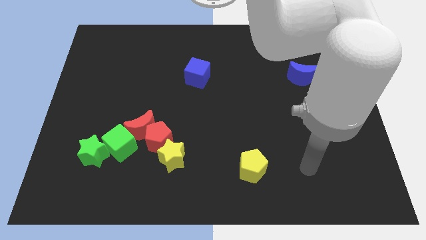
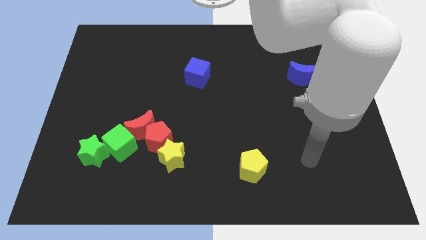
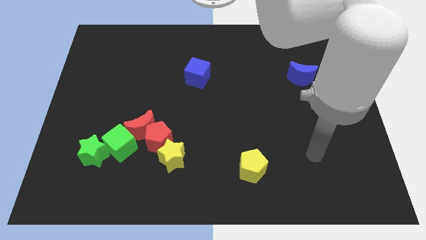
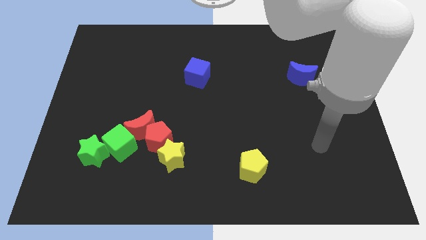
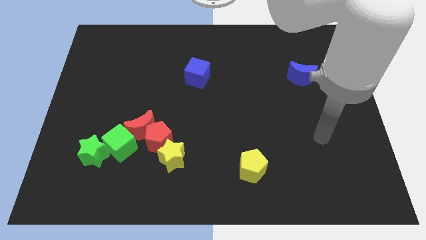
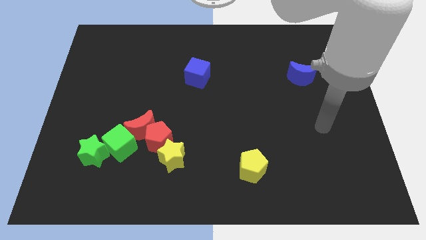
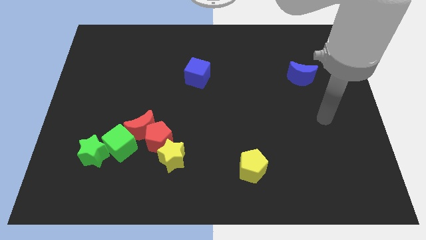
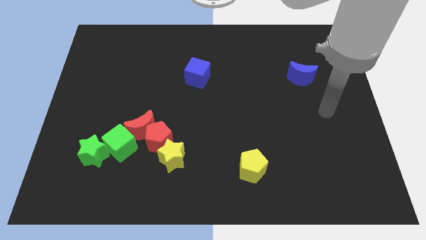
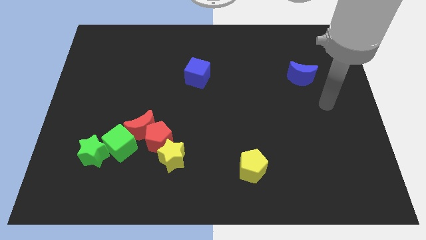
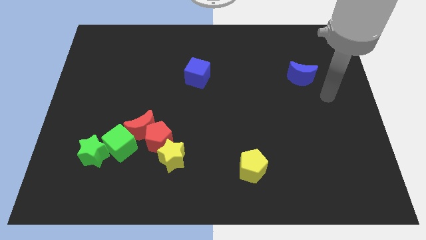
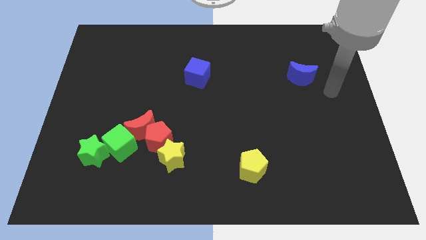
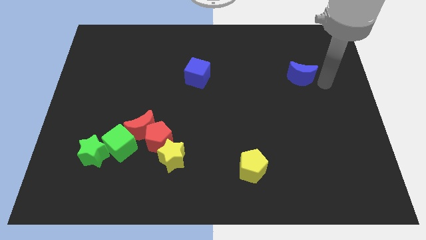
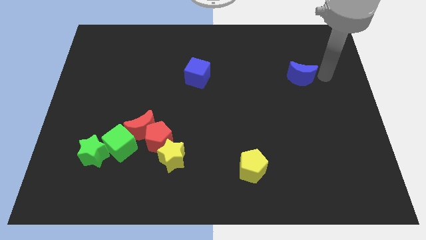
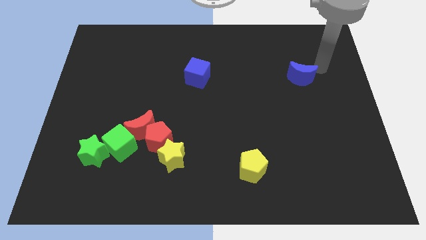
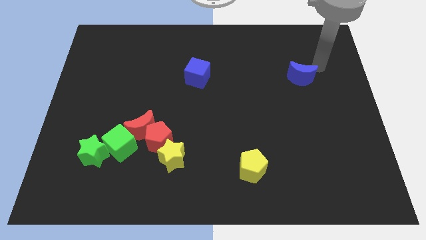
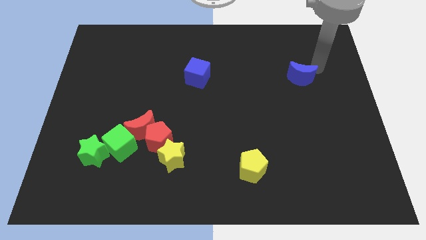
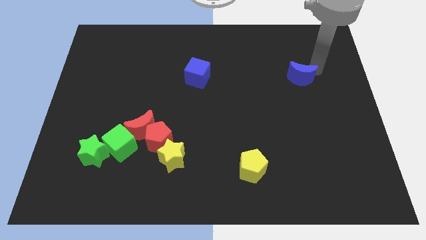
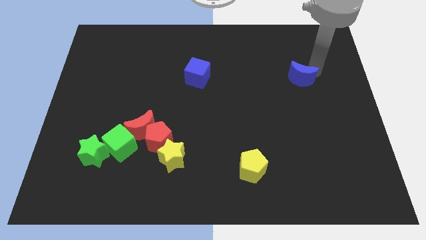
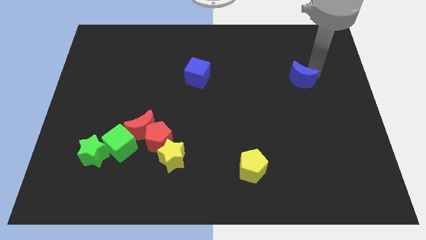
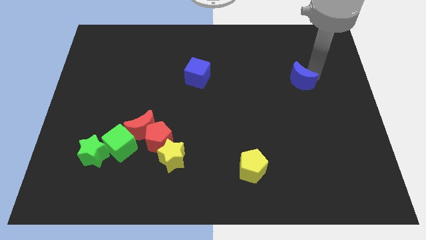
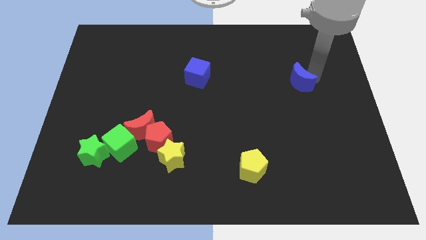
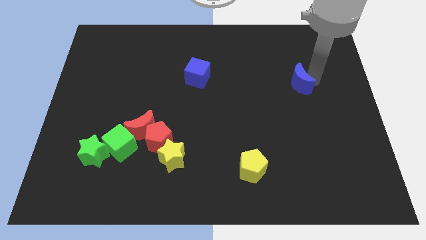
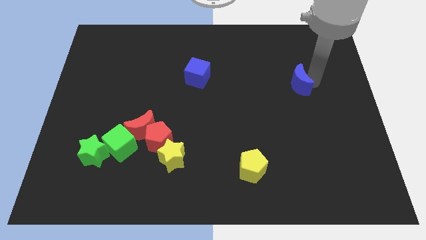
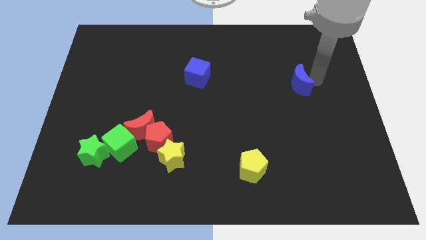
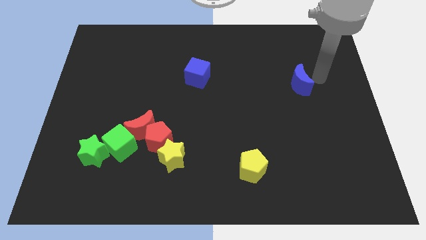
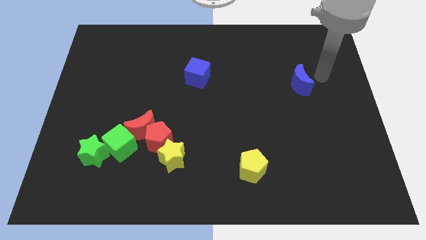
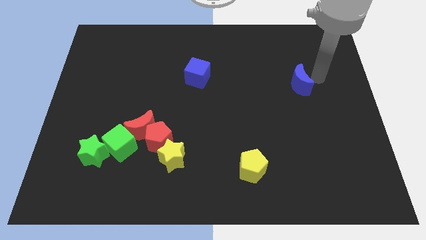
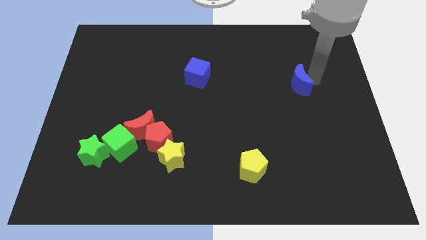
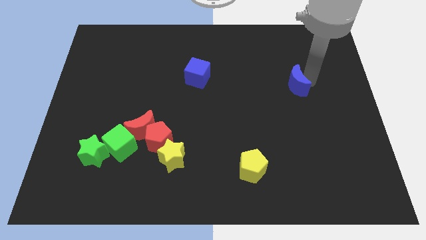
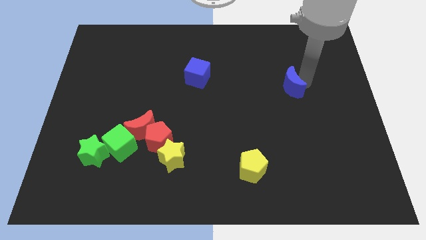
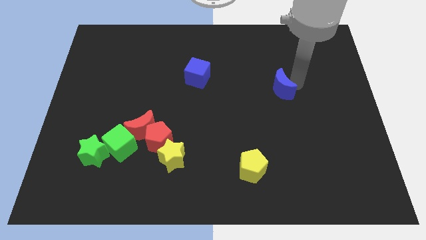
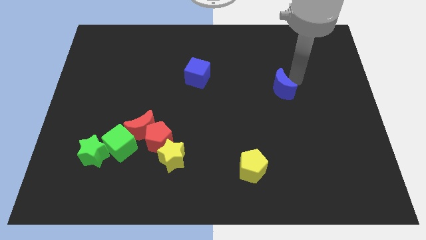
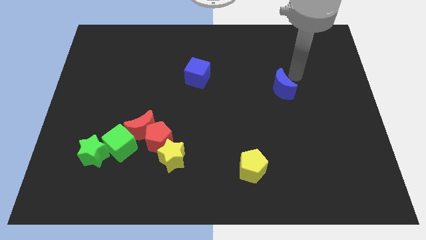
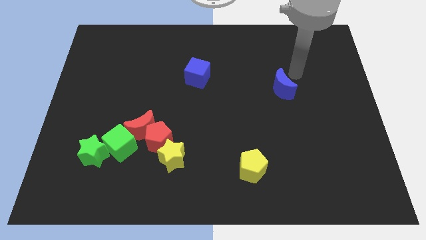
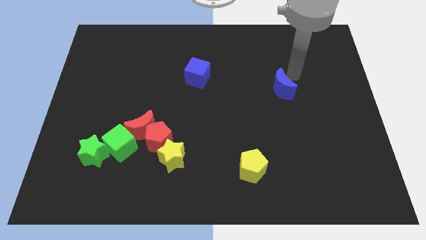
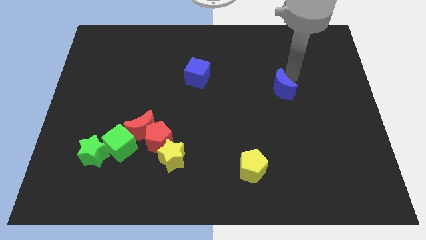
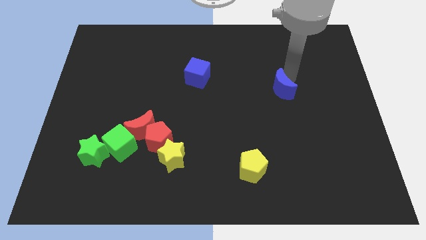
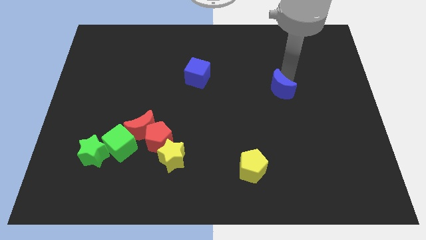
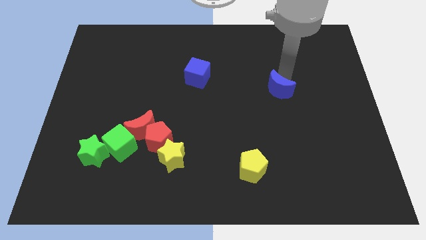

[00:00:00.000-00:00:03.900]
push the blue moon a little downwards and to the left diagonally

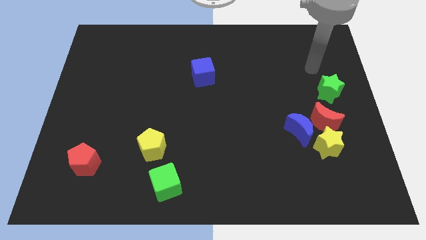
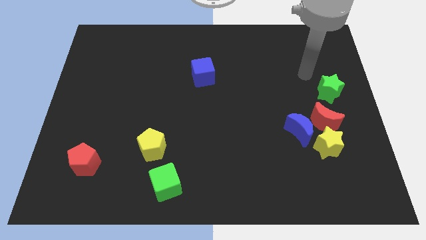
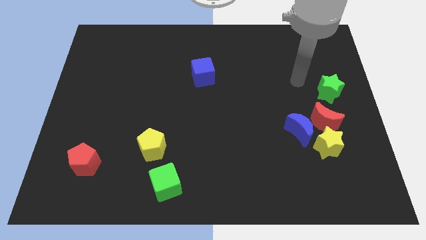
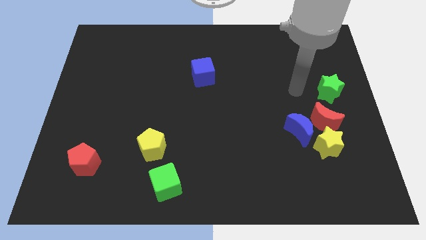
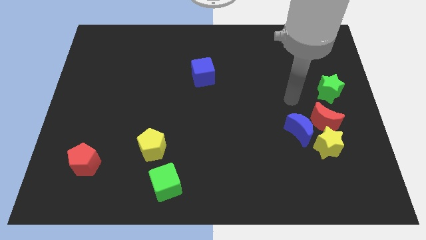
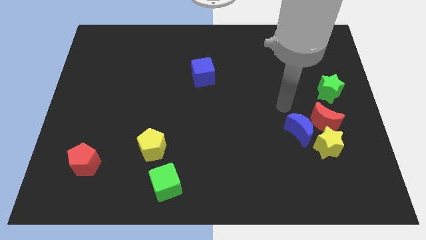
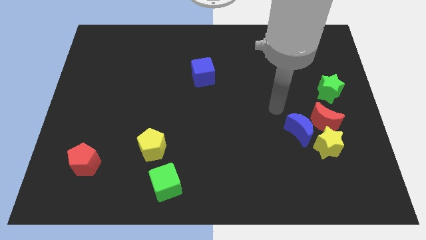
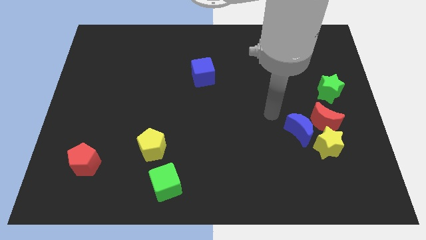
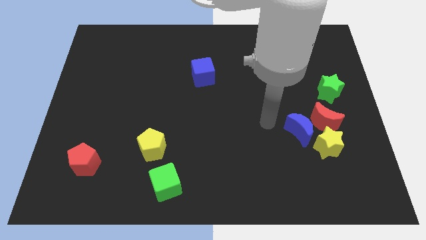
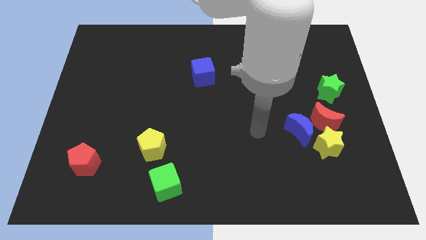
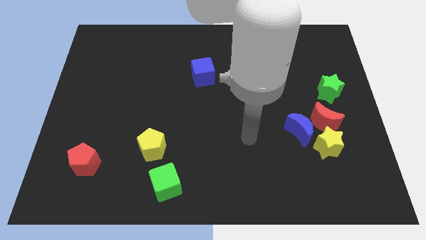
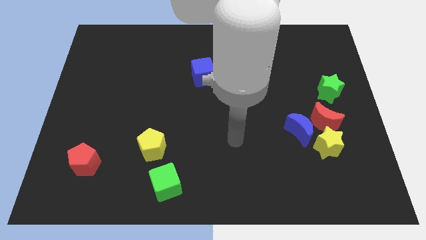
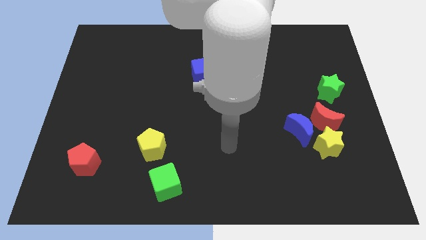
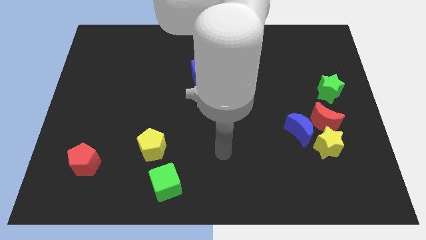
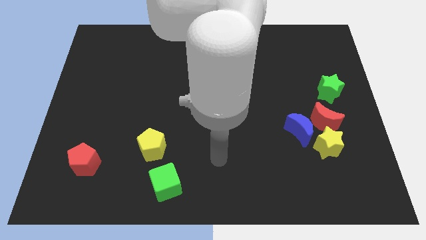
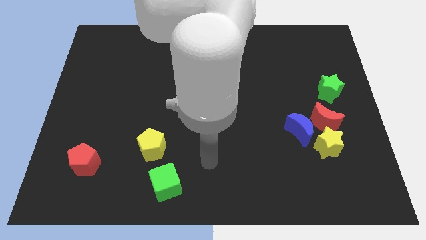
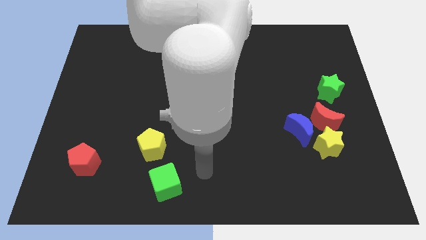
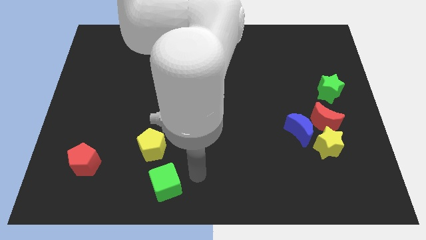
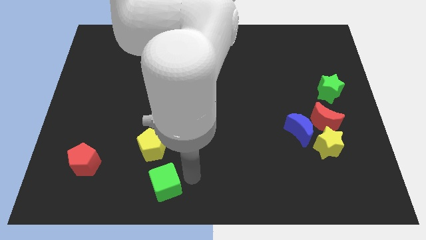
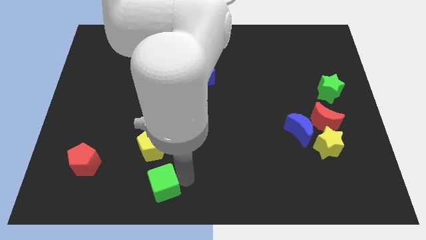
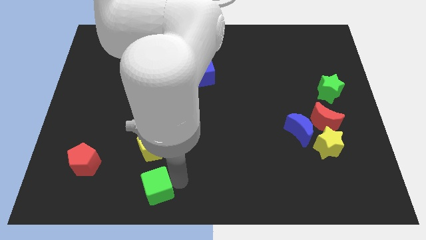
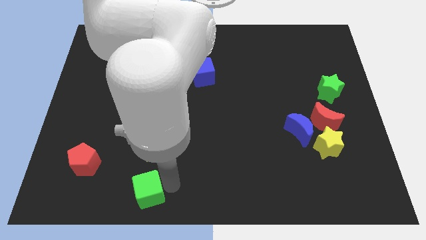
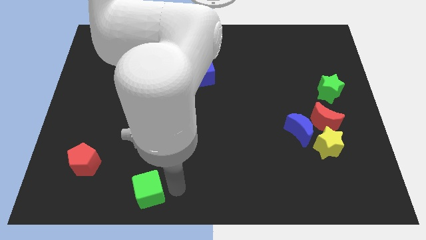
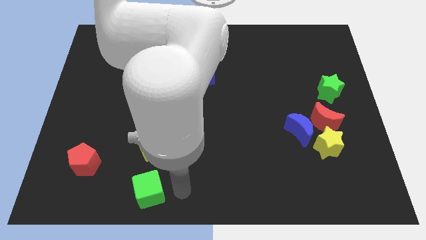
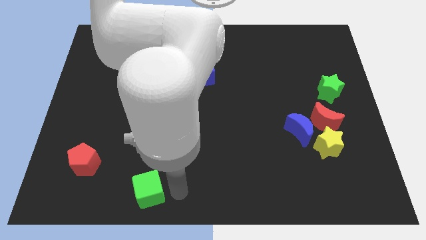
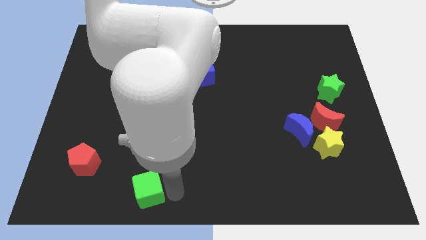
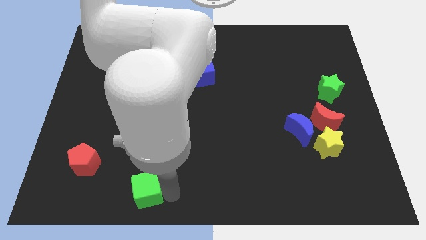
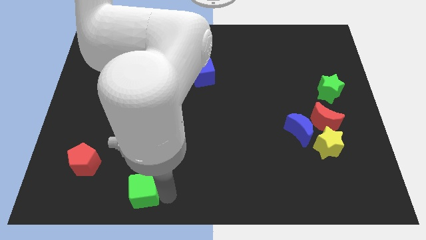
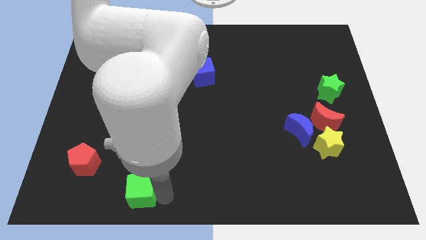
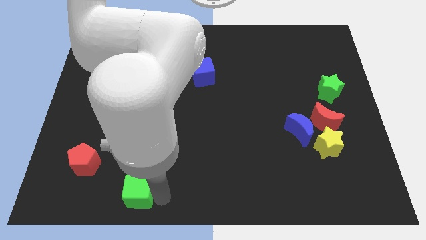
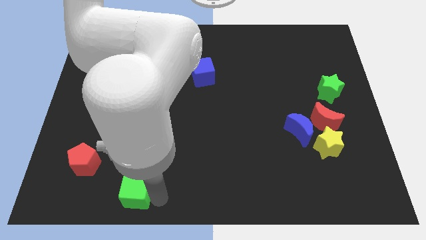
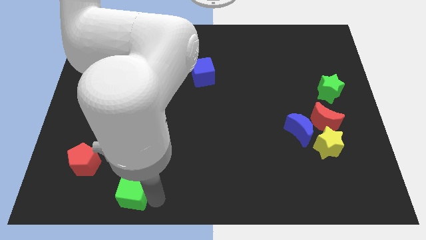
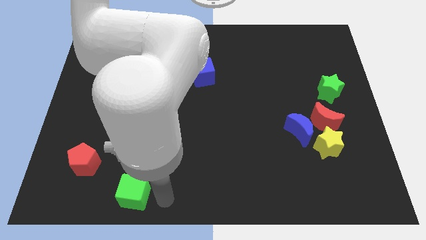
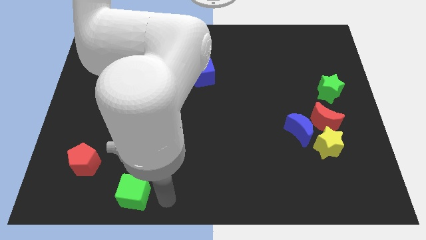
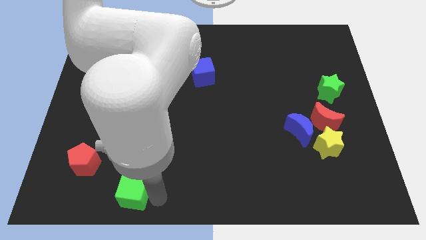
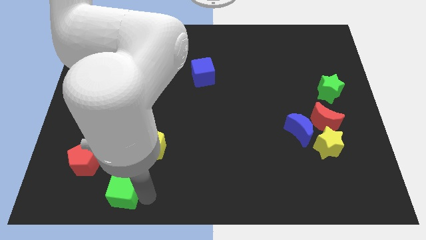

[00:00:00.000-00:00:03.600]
slide the green cube slightly to the left
